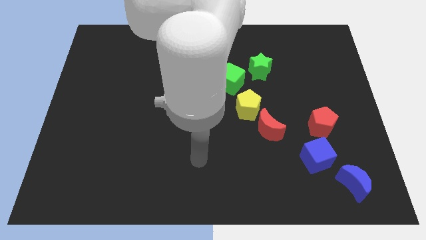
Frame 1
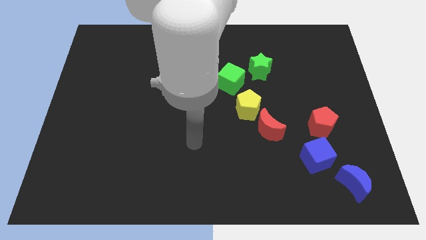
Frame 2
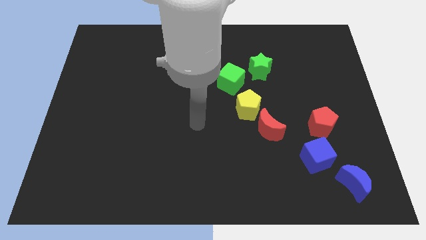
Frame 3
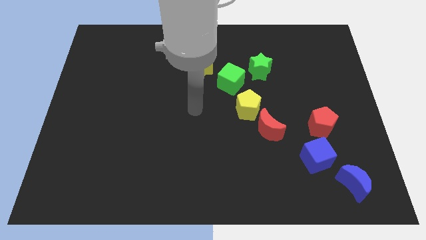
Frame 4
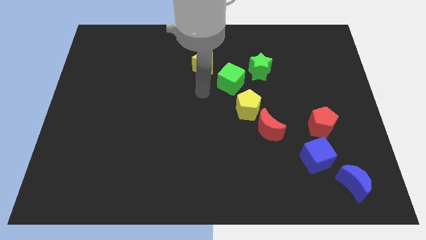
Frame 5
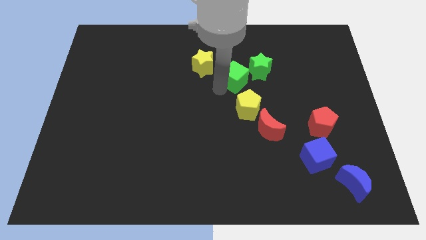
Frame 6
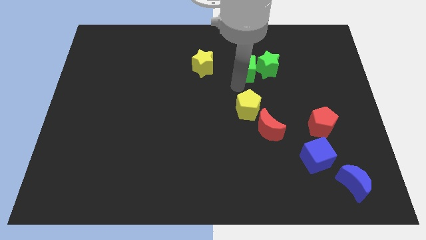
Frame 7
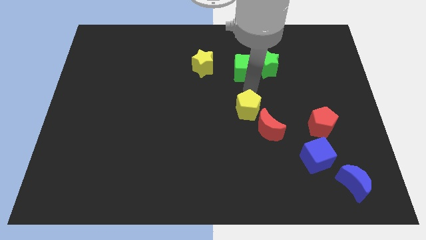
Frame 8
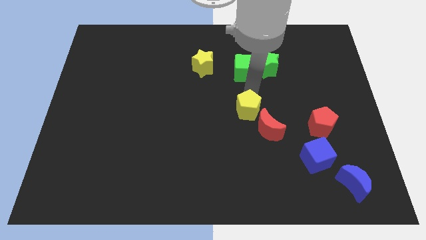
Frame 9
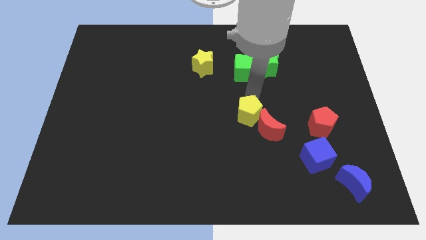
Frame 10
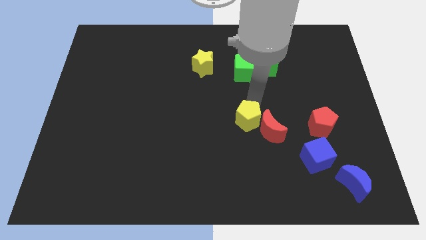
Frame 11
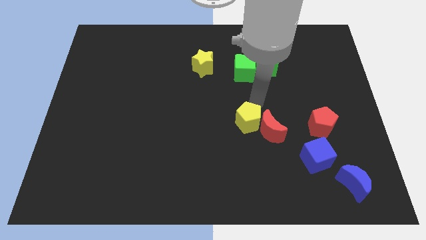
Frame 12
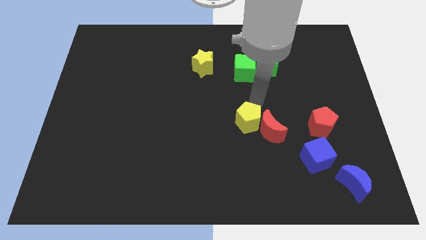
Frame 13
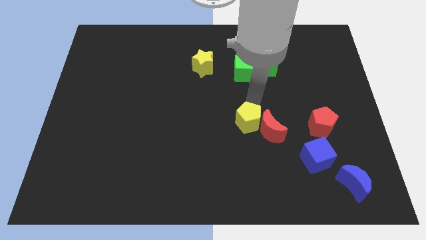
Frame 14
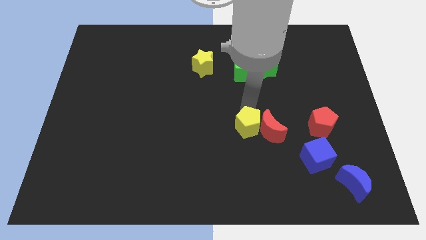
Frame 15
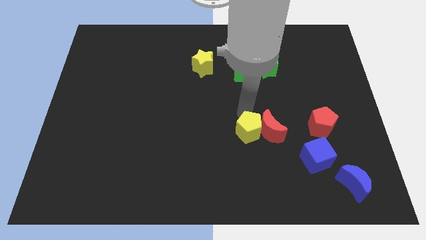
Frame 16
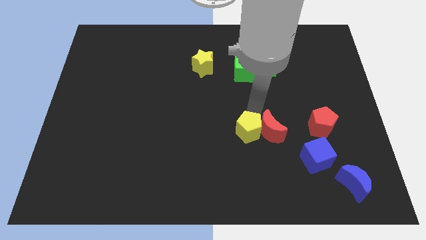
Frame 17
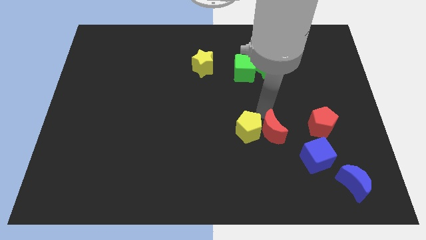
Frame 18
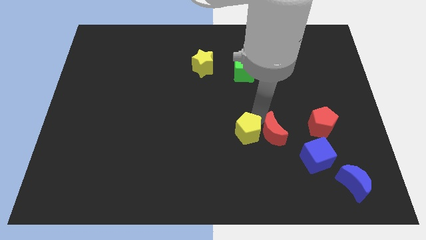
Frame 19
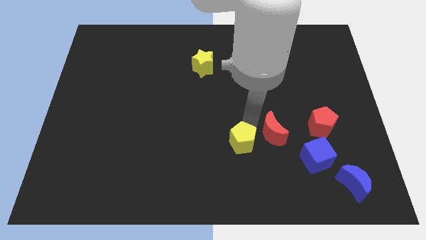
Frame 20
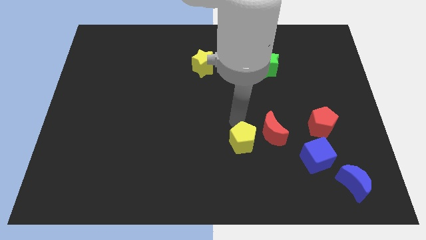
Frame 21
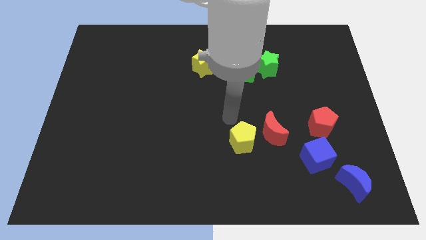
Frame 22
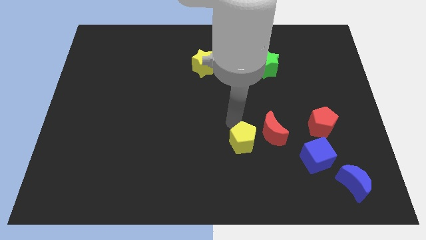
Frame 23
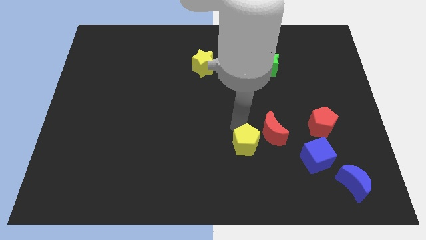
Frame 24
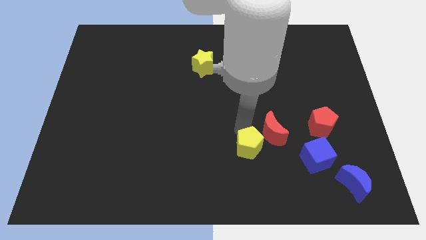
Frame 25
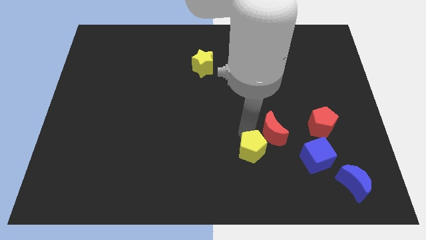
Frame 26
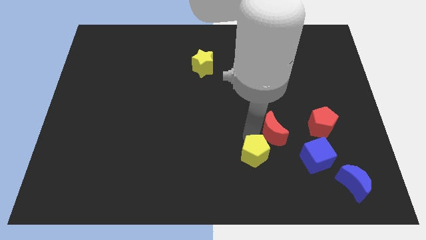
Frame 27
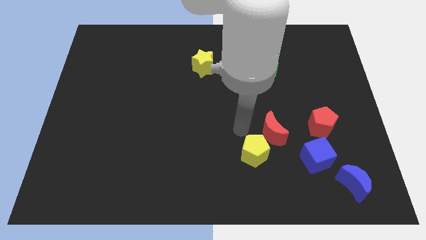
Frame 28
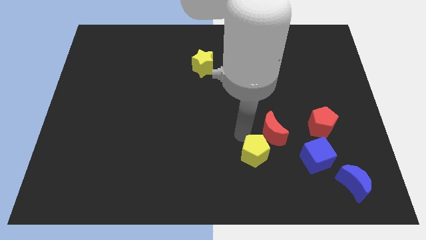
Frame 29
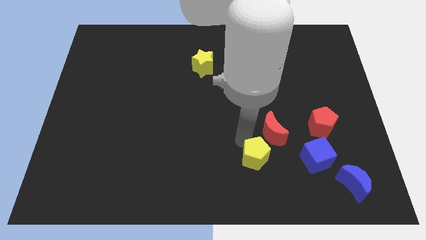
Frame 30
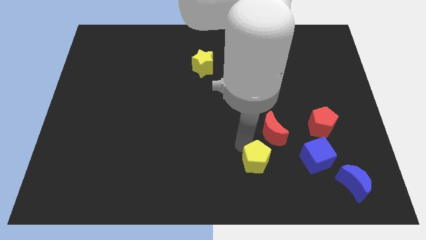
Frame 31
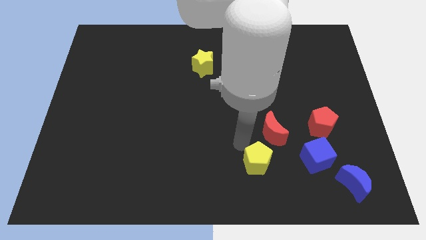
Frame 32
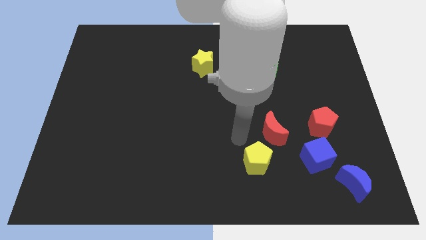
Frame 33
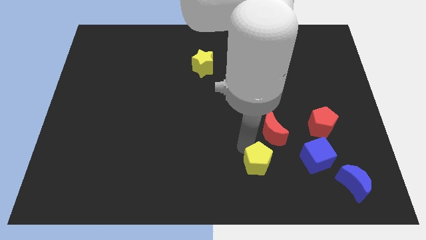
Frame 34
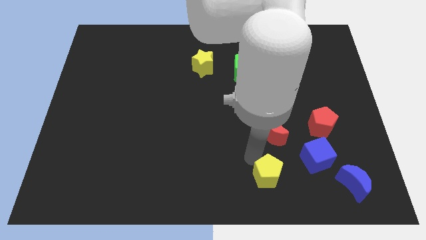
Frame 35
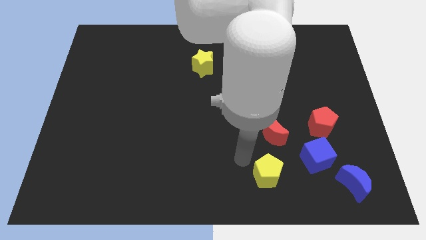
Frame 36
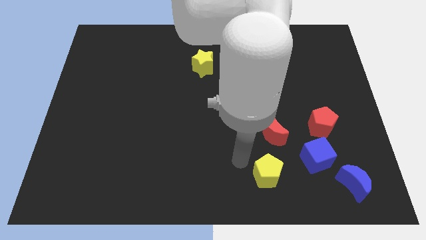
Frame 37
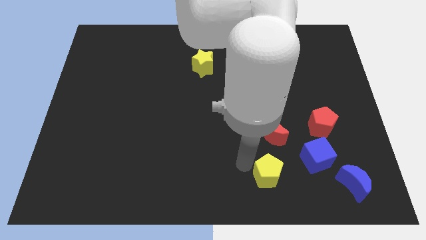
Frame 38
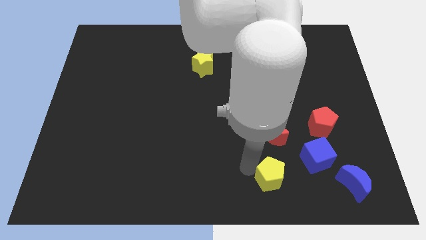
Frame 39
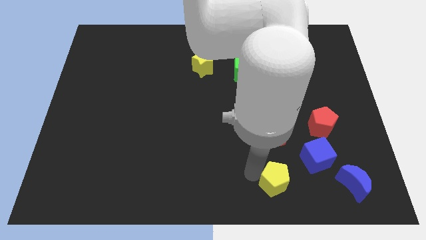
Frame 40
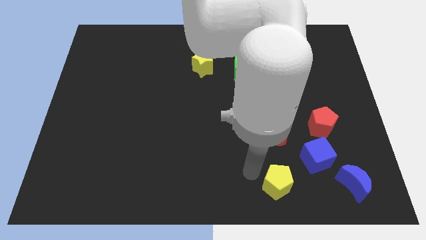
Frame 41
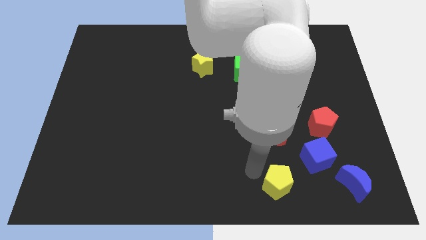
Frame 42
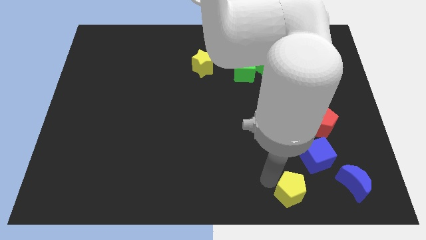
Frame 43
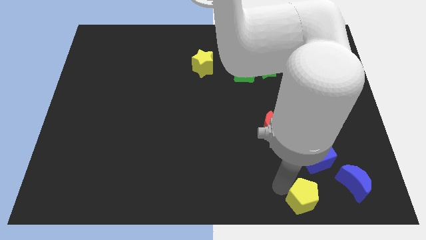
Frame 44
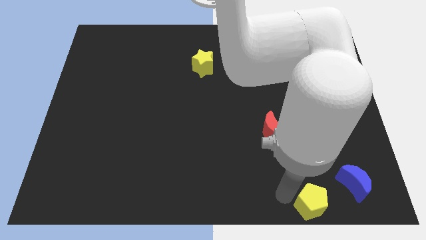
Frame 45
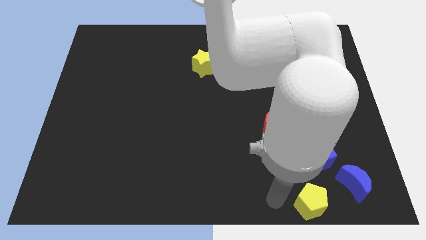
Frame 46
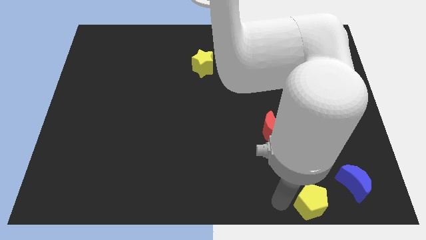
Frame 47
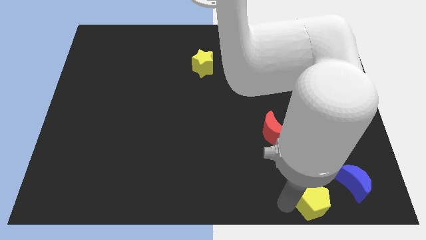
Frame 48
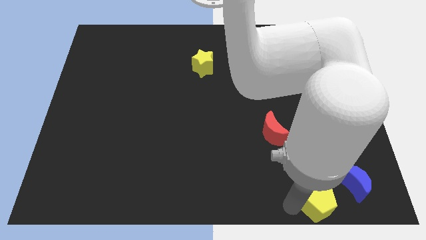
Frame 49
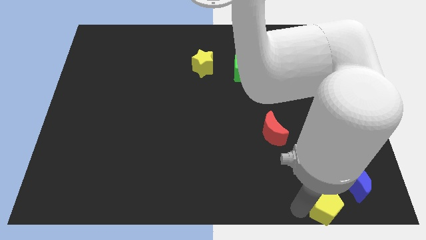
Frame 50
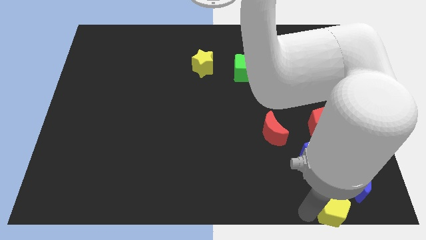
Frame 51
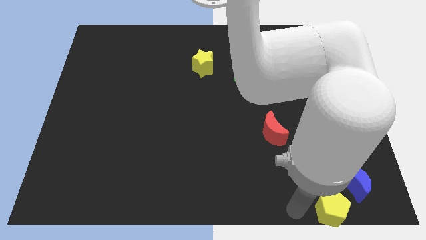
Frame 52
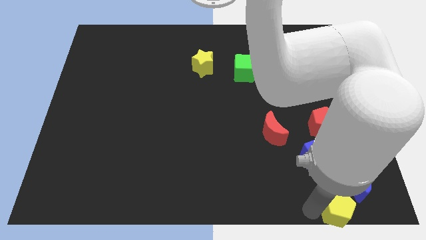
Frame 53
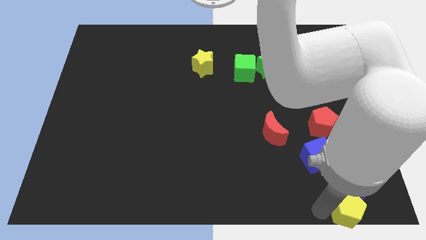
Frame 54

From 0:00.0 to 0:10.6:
move the yellow pentagon to the bottom right

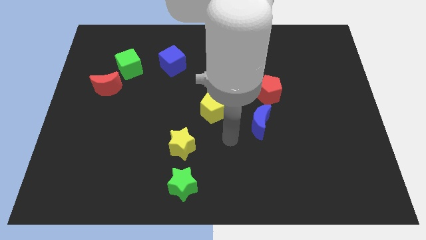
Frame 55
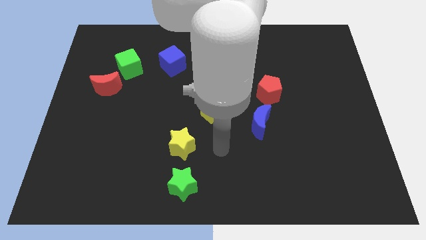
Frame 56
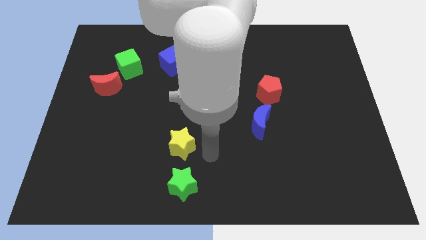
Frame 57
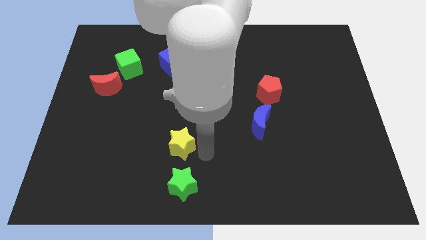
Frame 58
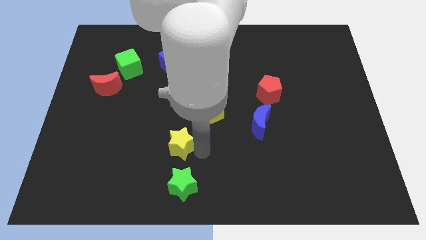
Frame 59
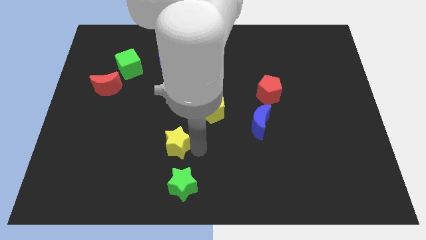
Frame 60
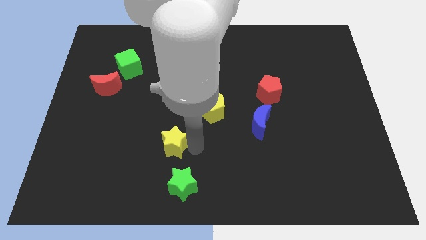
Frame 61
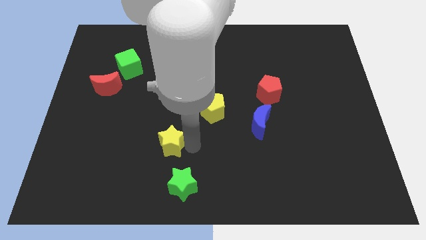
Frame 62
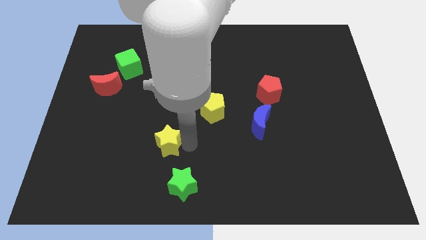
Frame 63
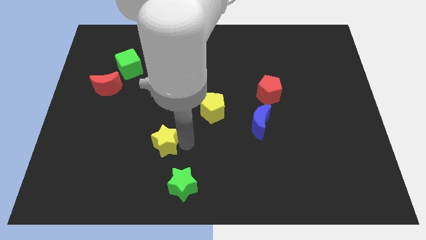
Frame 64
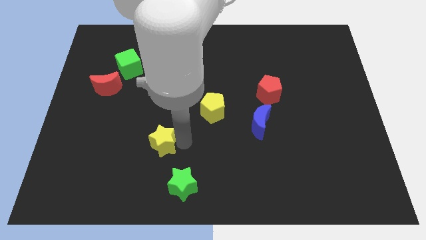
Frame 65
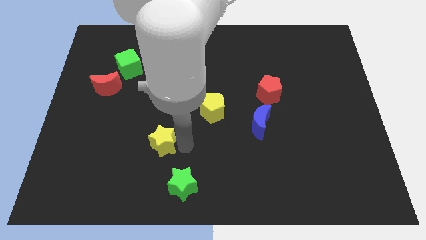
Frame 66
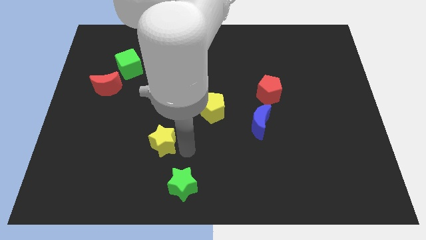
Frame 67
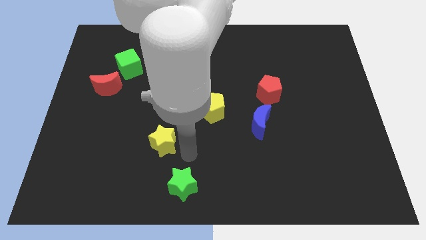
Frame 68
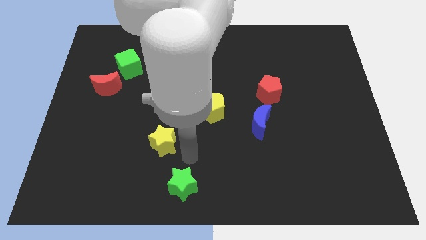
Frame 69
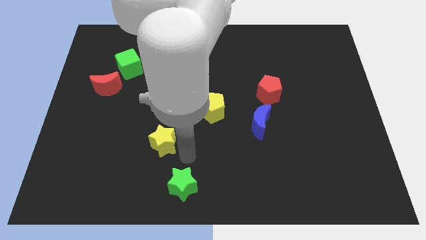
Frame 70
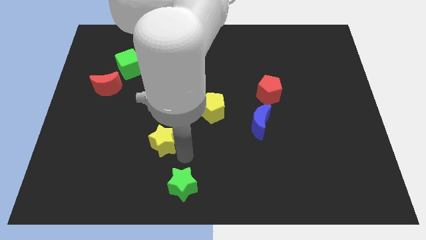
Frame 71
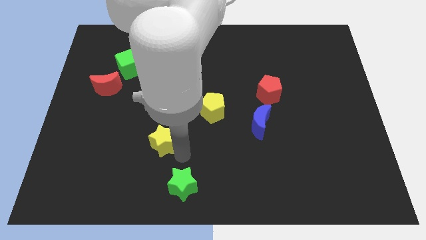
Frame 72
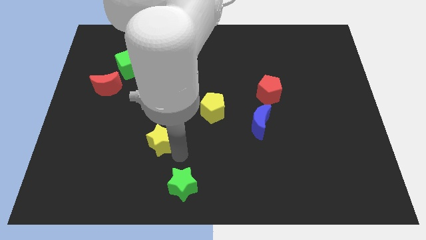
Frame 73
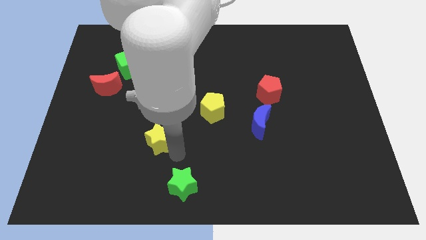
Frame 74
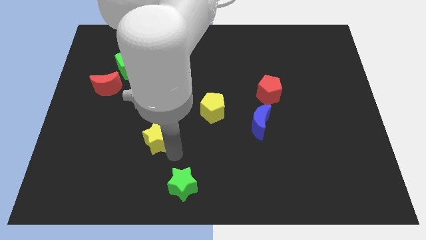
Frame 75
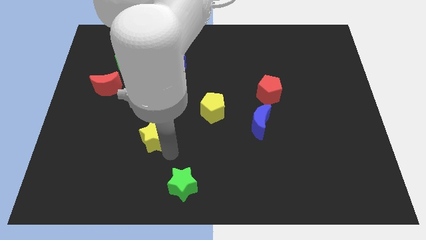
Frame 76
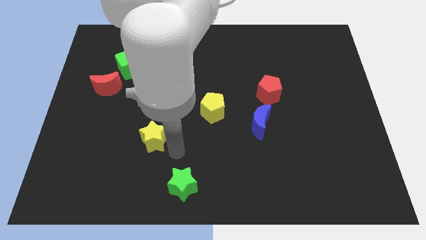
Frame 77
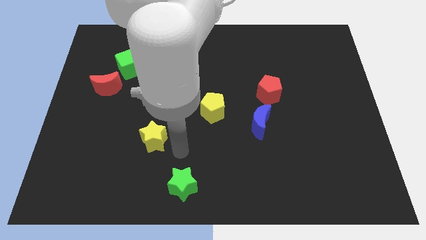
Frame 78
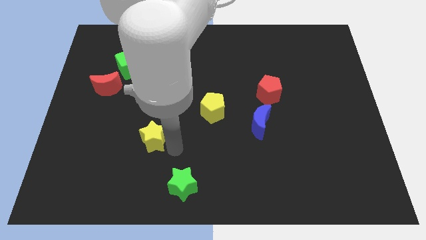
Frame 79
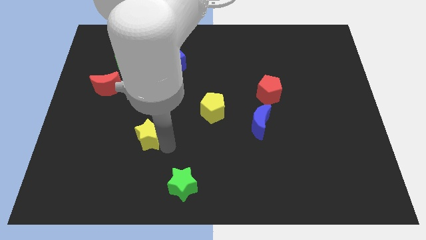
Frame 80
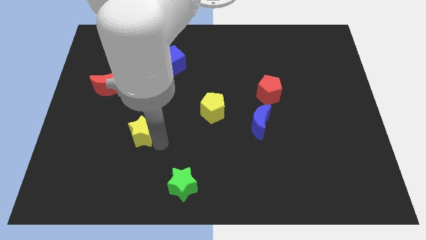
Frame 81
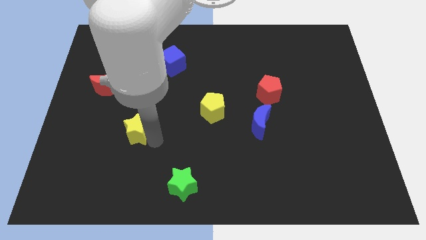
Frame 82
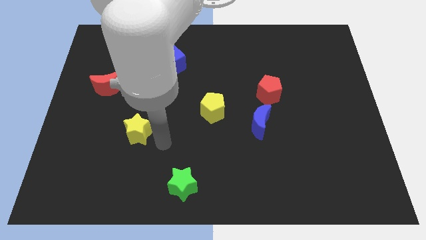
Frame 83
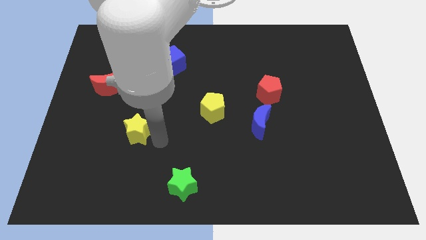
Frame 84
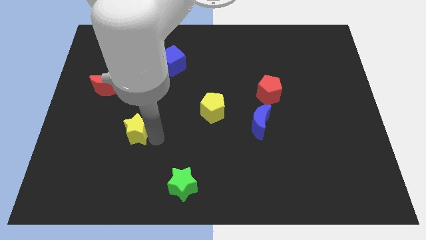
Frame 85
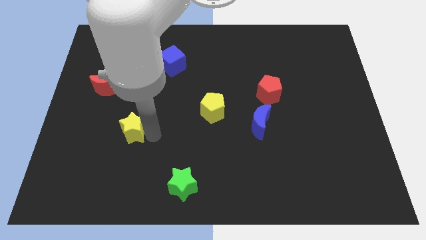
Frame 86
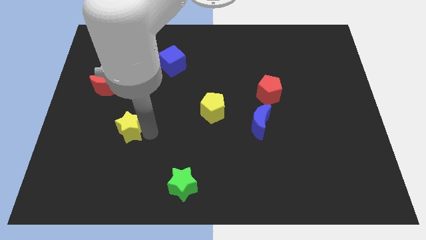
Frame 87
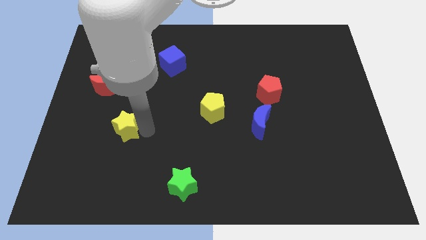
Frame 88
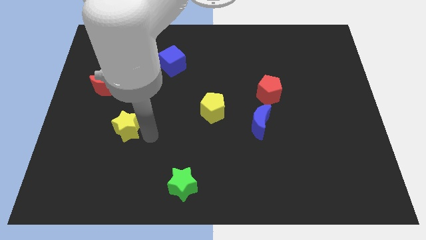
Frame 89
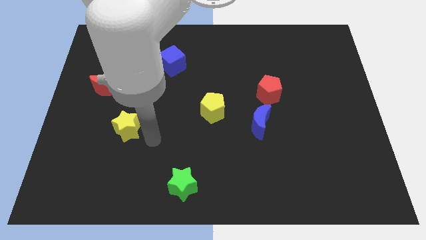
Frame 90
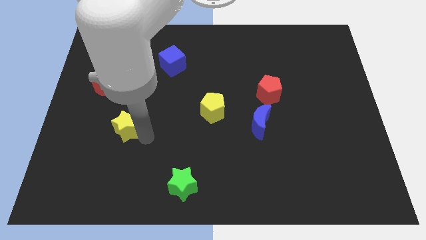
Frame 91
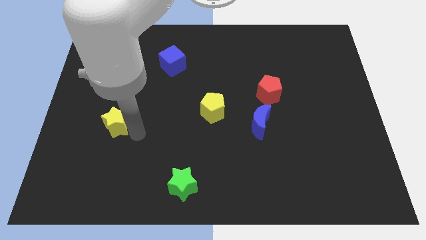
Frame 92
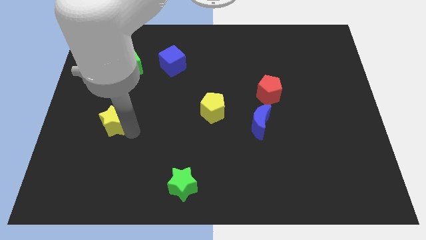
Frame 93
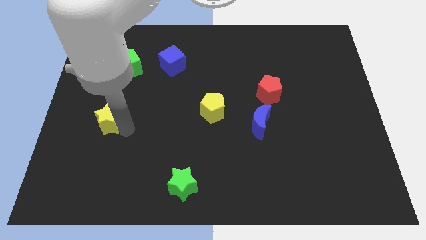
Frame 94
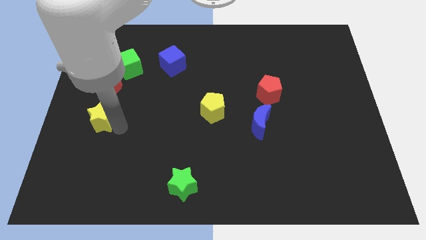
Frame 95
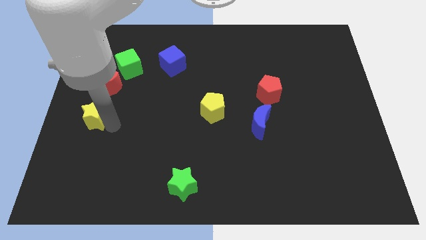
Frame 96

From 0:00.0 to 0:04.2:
put the yellow star to the left side
